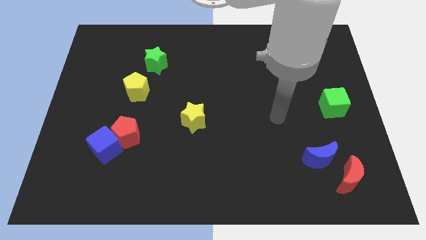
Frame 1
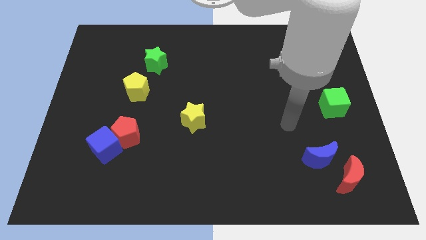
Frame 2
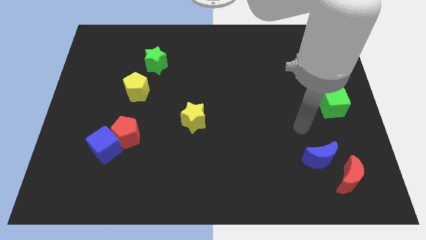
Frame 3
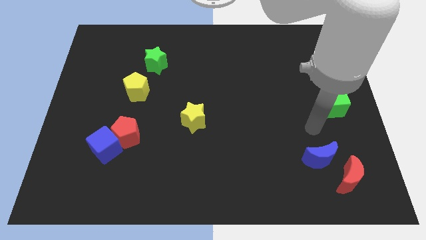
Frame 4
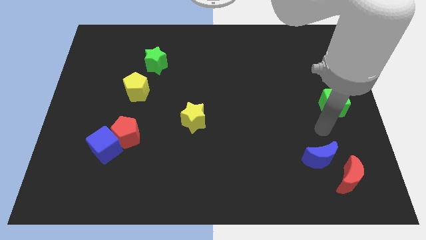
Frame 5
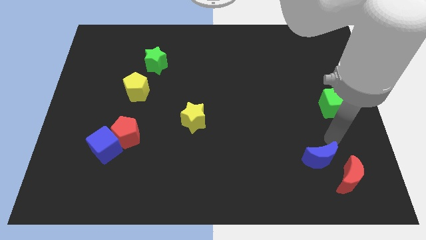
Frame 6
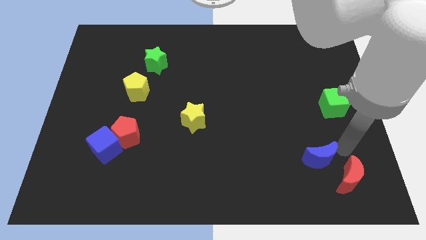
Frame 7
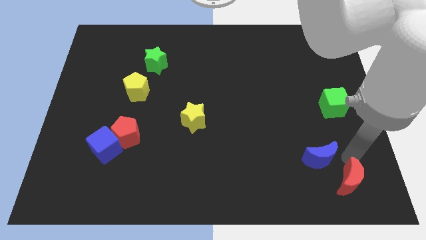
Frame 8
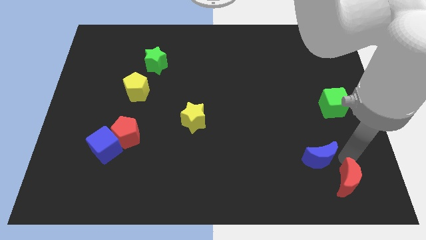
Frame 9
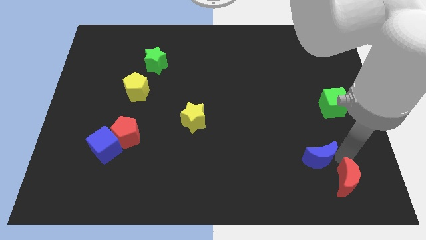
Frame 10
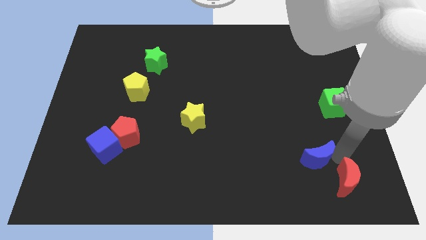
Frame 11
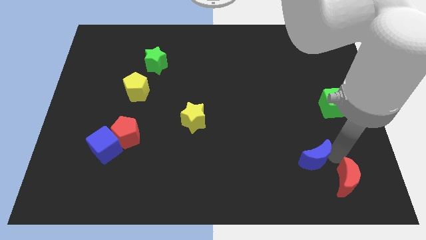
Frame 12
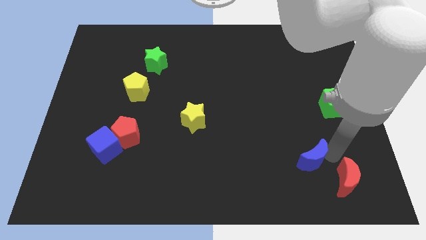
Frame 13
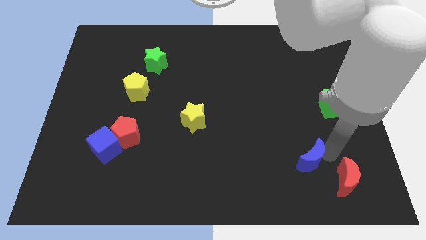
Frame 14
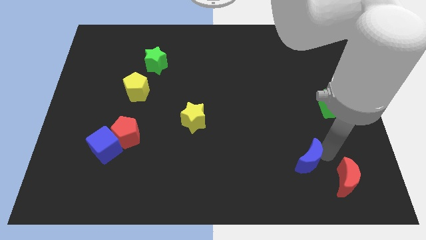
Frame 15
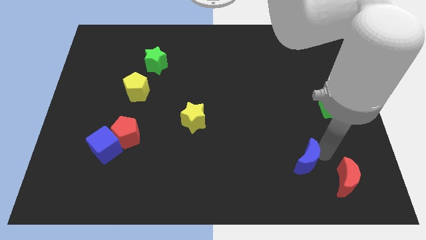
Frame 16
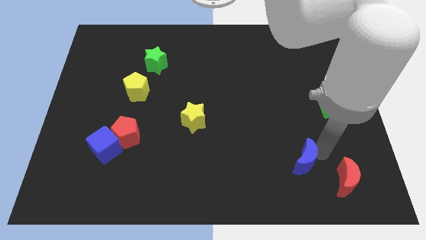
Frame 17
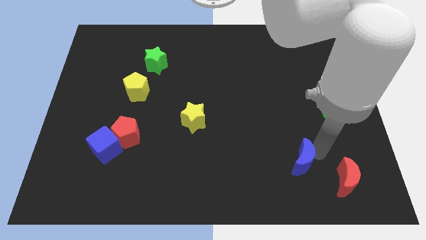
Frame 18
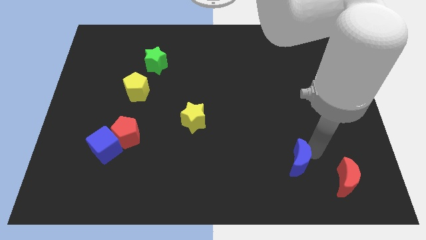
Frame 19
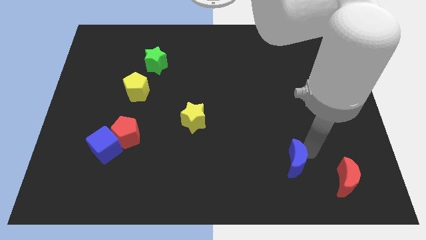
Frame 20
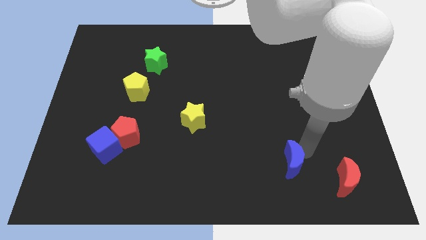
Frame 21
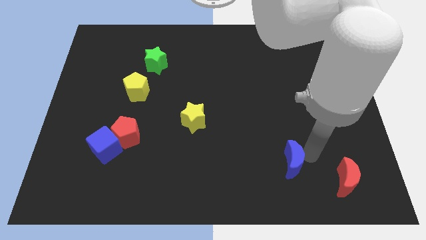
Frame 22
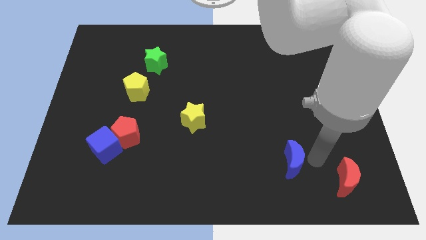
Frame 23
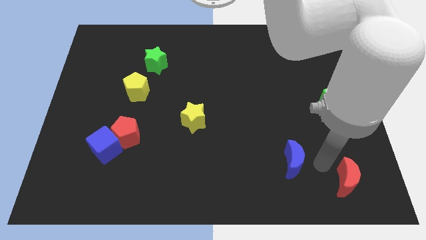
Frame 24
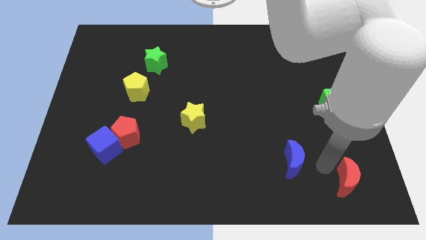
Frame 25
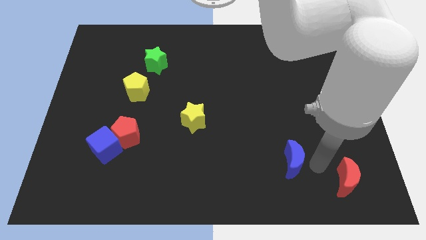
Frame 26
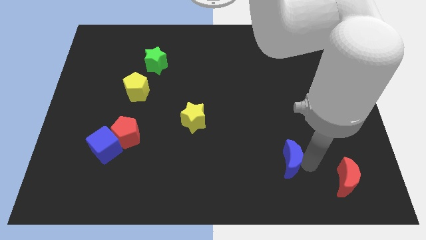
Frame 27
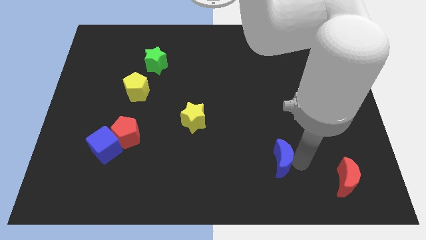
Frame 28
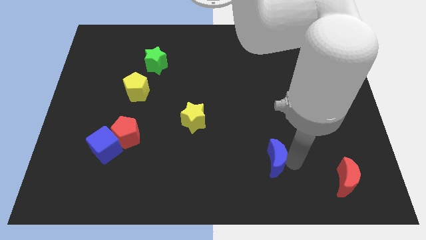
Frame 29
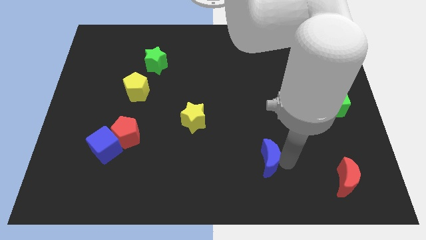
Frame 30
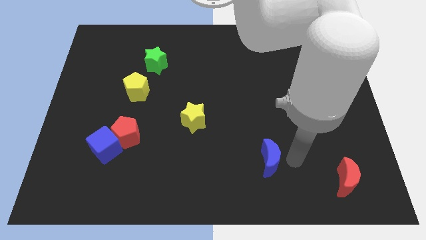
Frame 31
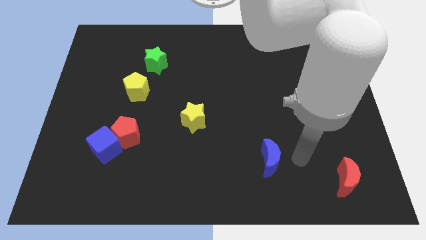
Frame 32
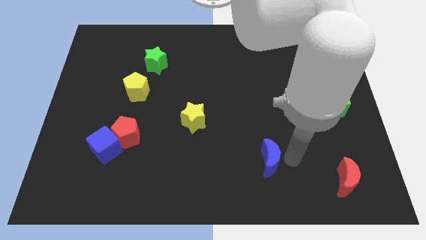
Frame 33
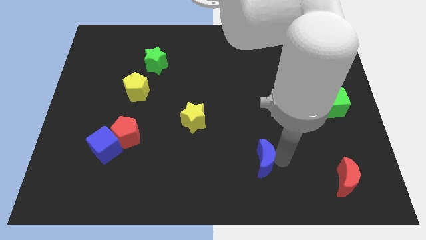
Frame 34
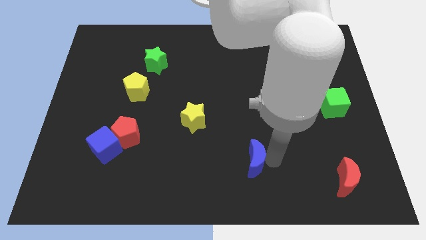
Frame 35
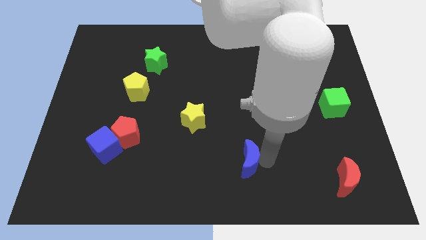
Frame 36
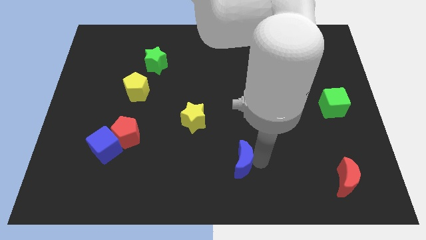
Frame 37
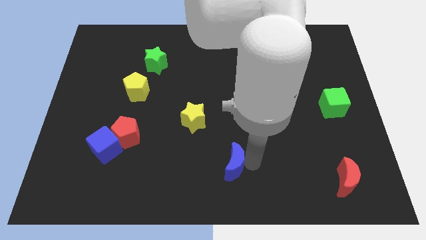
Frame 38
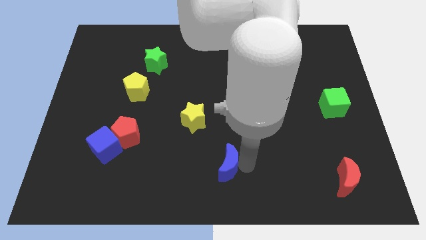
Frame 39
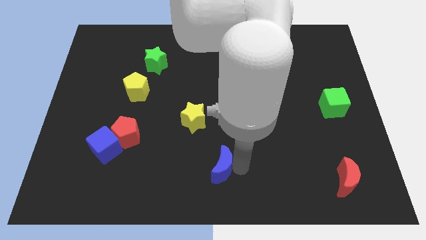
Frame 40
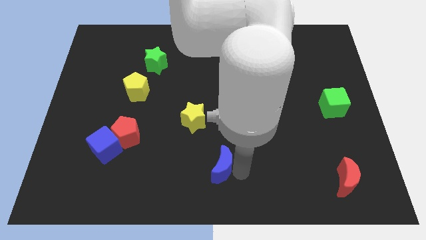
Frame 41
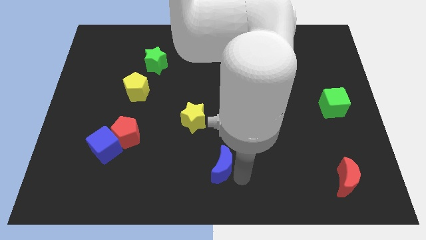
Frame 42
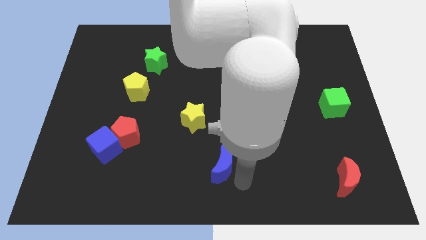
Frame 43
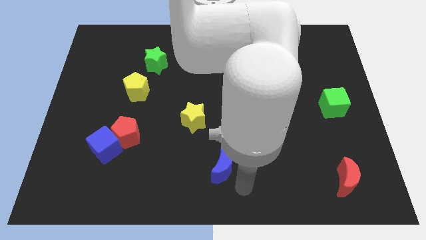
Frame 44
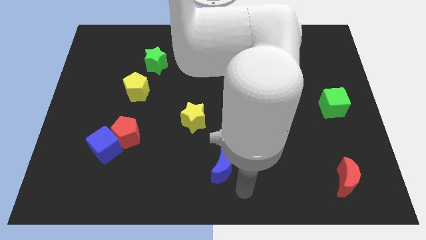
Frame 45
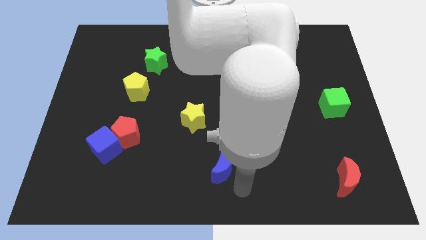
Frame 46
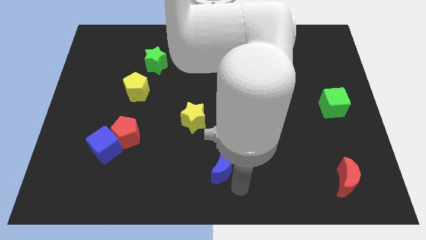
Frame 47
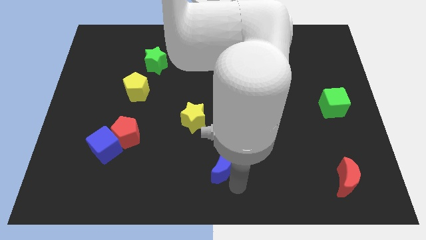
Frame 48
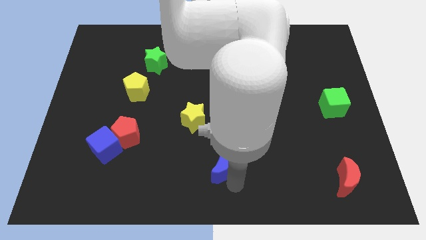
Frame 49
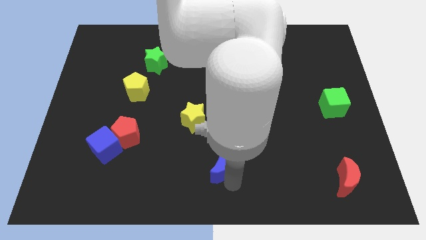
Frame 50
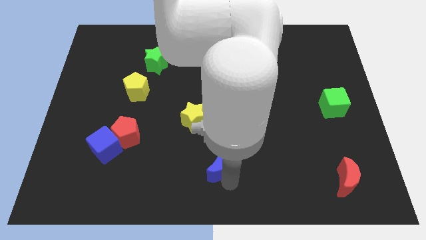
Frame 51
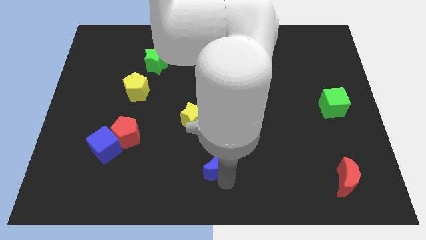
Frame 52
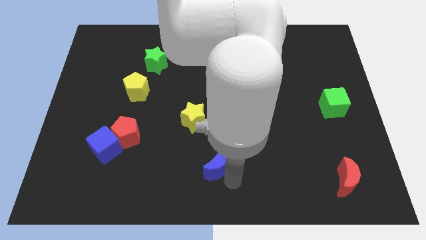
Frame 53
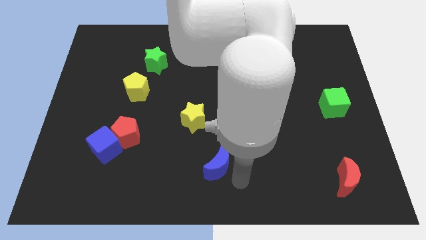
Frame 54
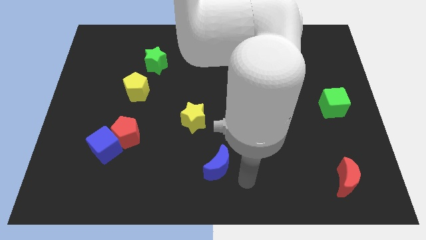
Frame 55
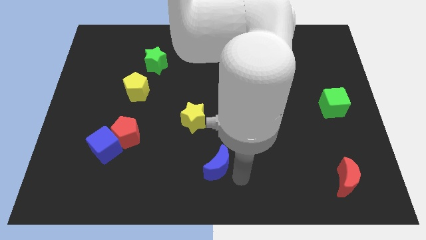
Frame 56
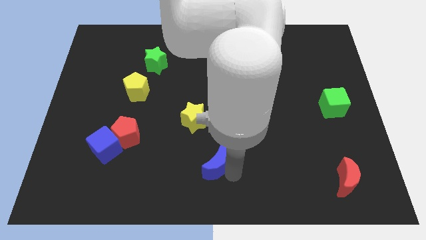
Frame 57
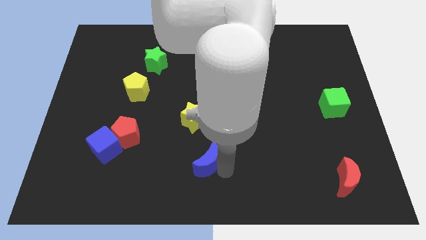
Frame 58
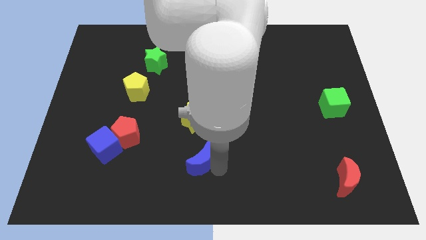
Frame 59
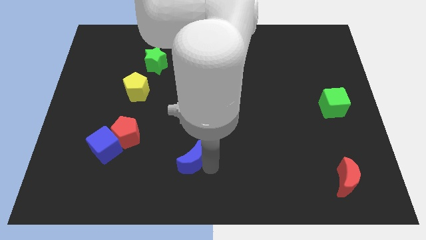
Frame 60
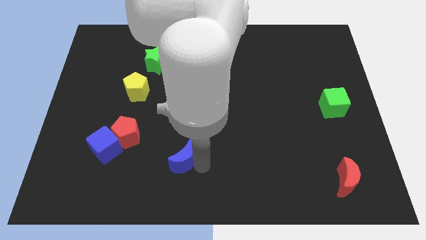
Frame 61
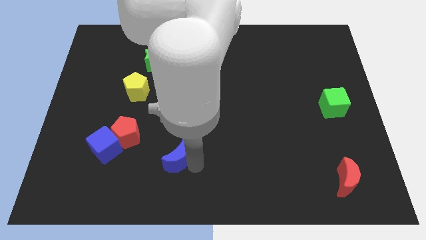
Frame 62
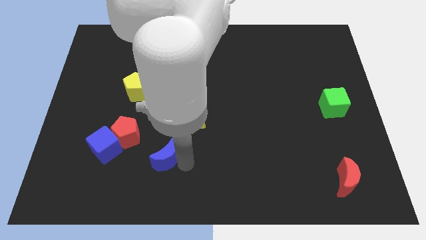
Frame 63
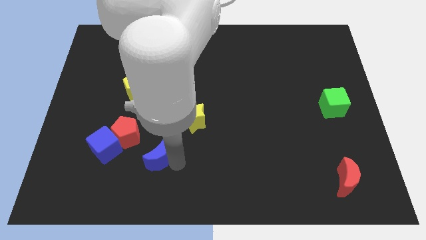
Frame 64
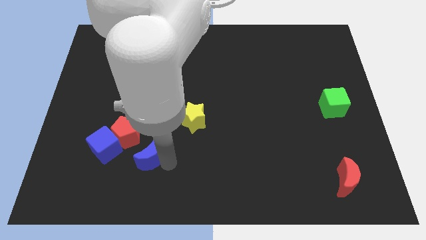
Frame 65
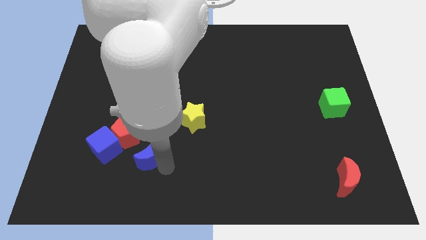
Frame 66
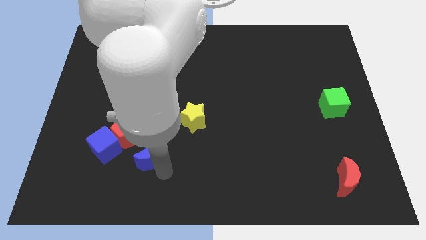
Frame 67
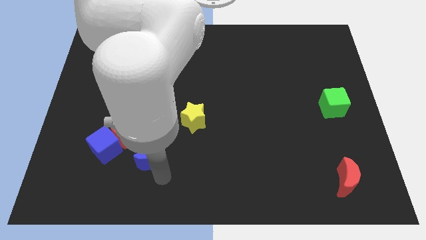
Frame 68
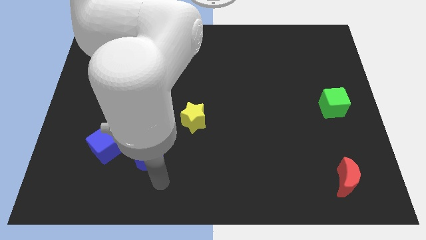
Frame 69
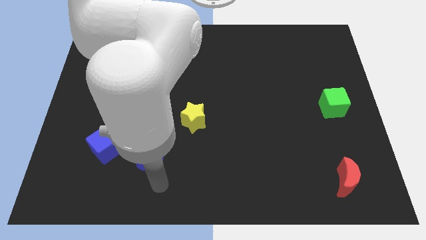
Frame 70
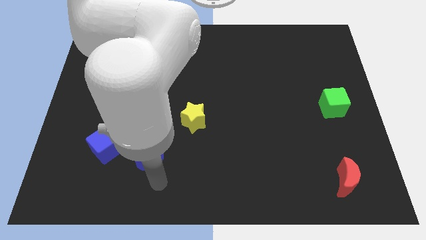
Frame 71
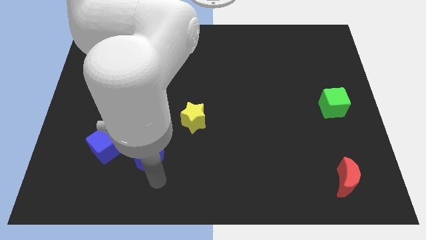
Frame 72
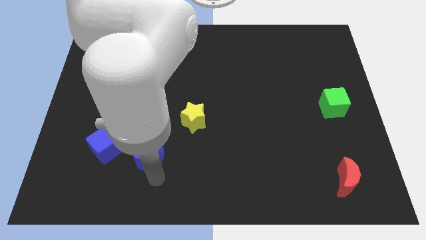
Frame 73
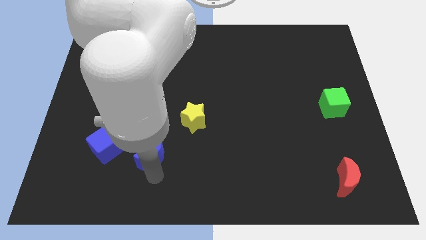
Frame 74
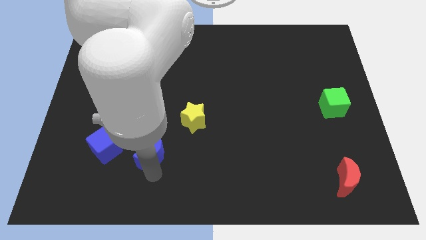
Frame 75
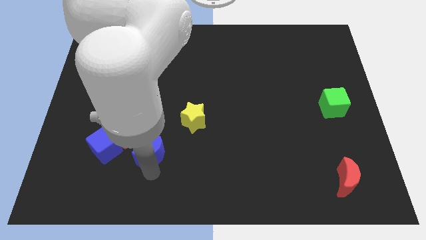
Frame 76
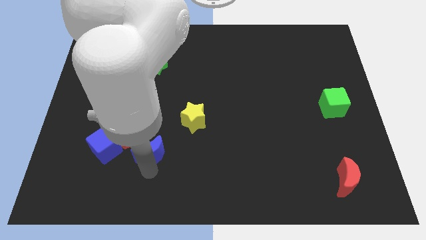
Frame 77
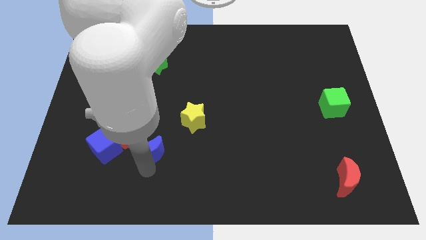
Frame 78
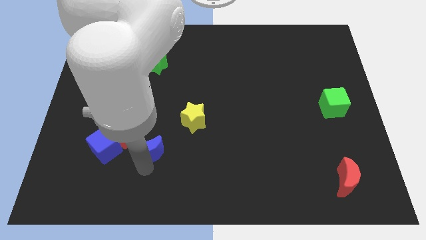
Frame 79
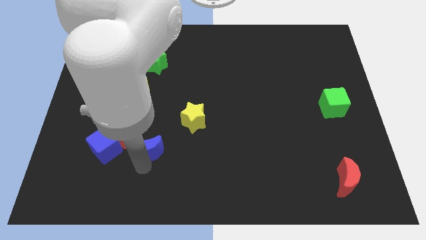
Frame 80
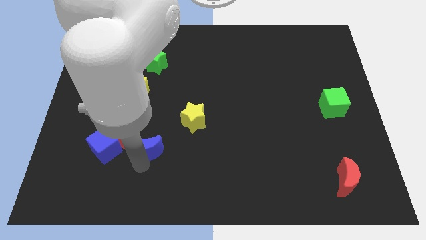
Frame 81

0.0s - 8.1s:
move the blue moon towards the red pentagon

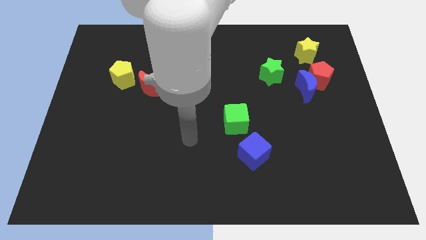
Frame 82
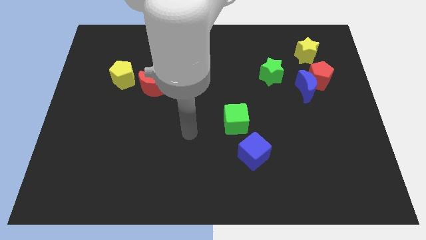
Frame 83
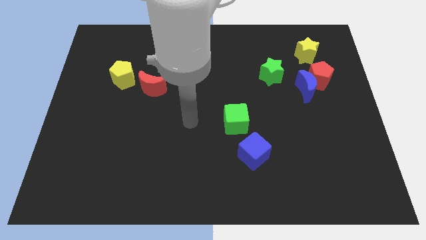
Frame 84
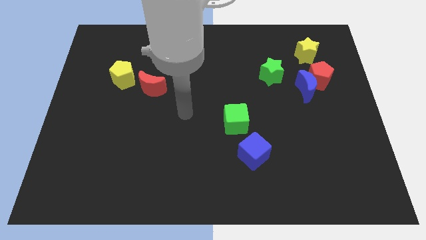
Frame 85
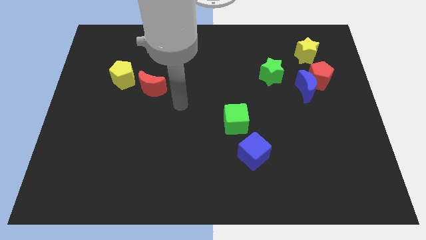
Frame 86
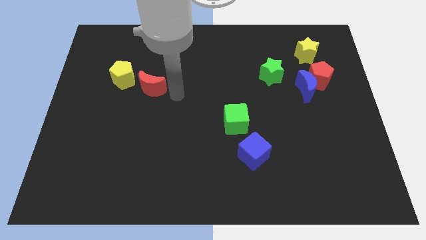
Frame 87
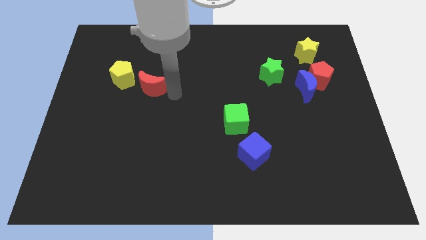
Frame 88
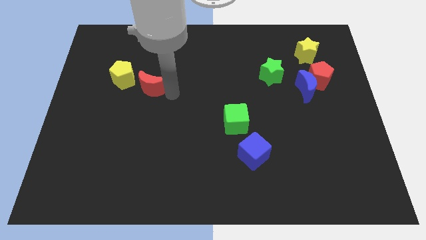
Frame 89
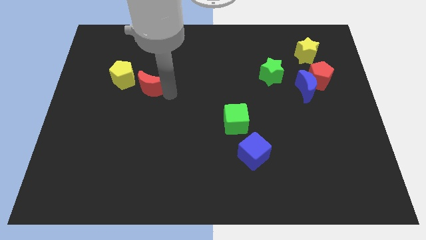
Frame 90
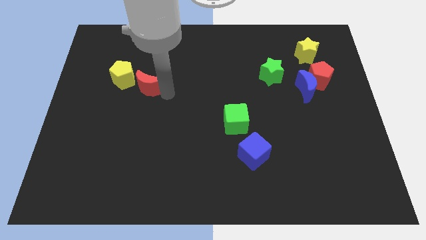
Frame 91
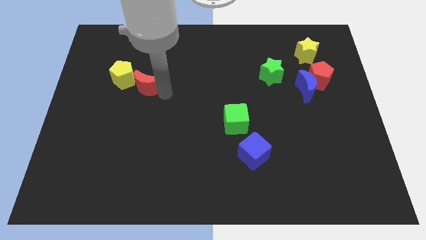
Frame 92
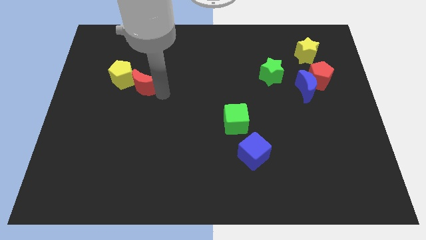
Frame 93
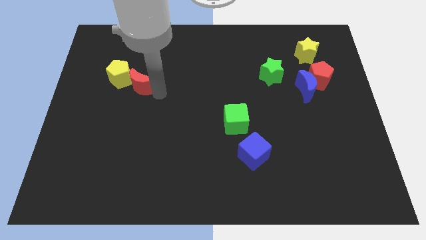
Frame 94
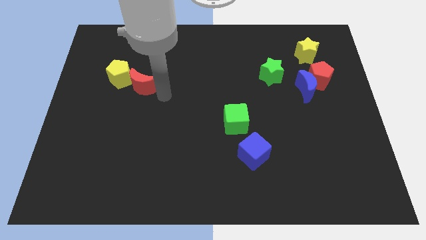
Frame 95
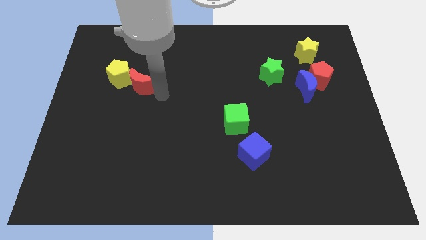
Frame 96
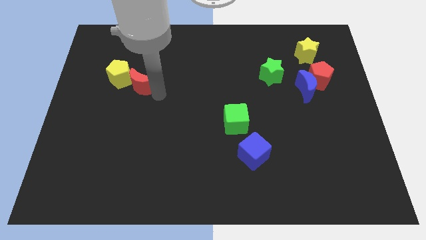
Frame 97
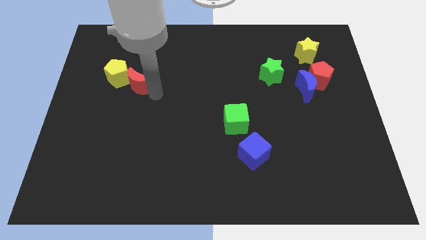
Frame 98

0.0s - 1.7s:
put the red moon next to the yellow pentagon
